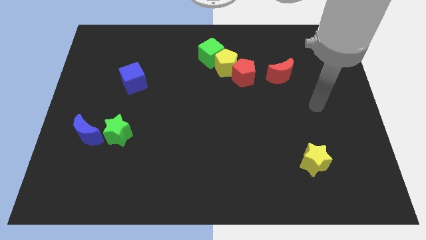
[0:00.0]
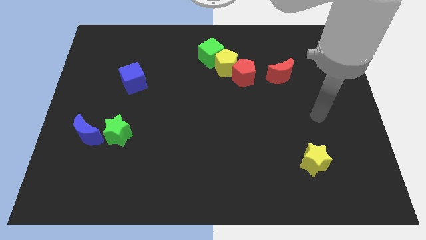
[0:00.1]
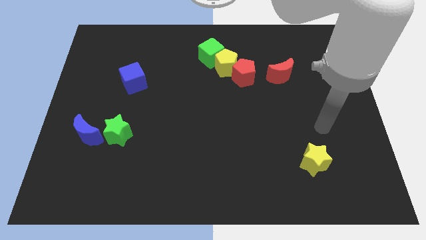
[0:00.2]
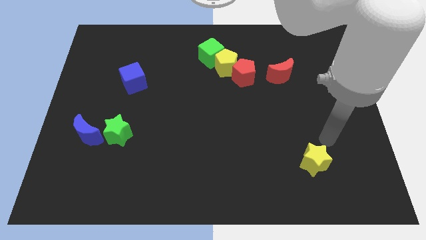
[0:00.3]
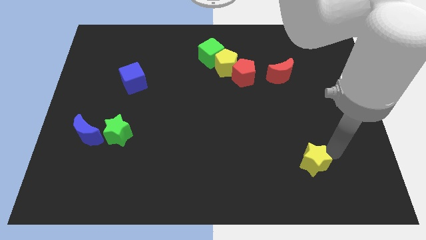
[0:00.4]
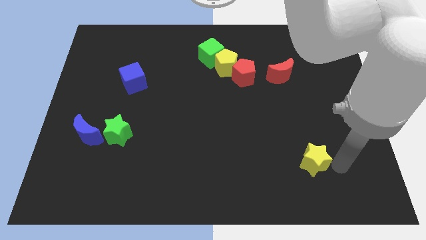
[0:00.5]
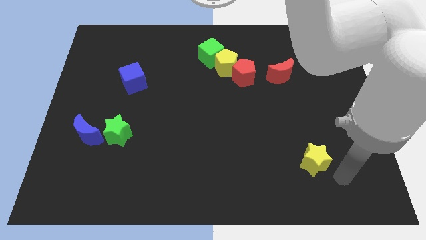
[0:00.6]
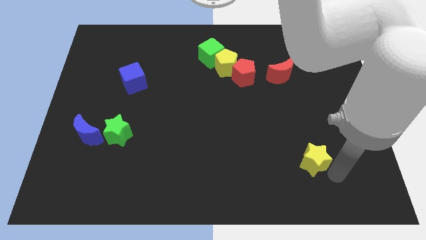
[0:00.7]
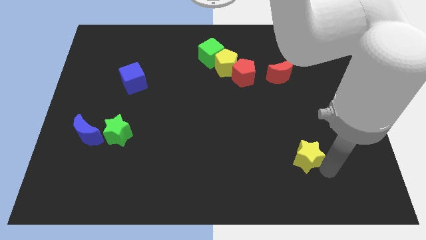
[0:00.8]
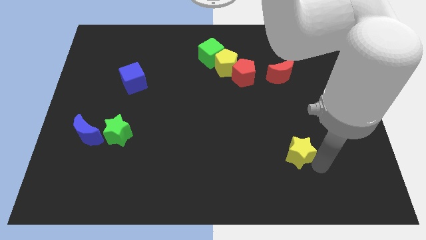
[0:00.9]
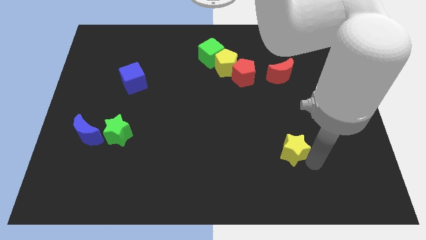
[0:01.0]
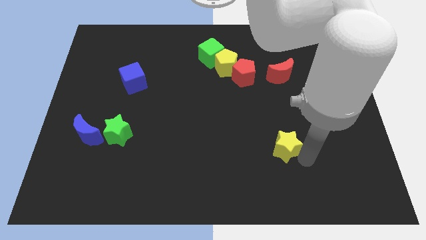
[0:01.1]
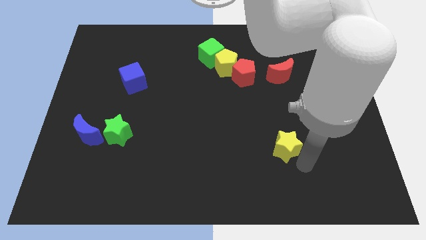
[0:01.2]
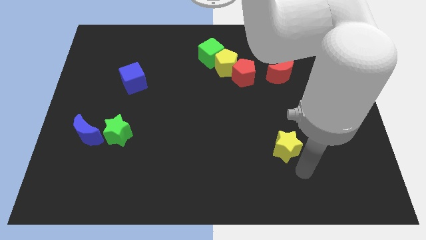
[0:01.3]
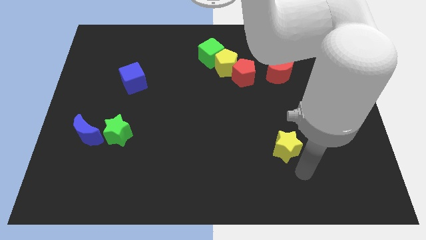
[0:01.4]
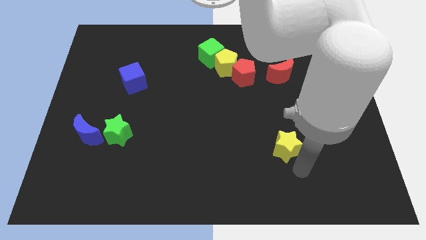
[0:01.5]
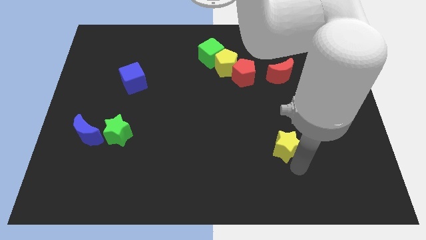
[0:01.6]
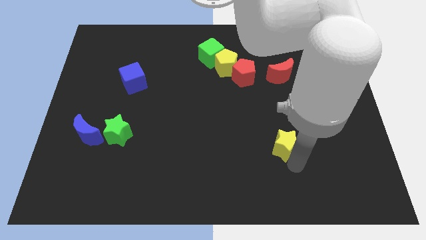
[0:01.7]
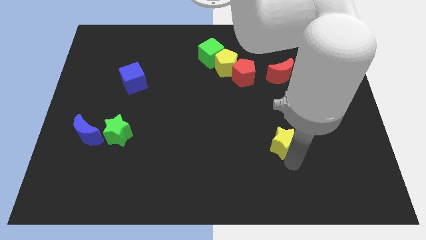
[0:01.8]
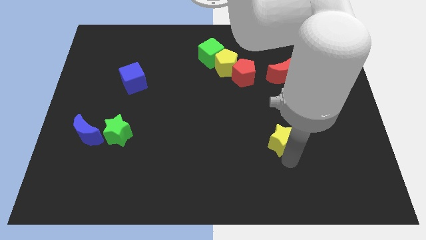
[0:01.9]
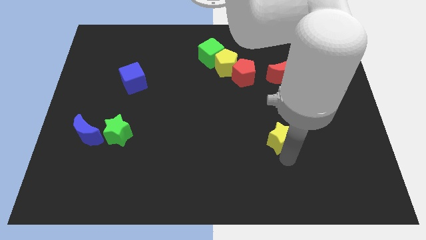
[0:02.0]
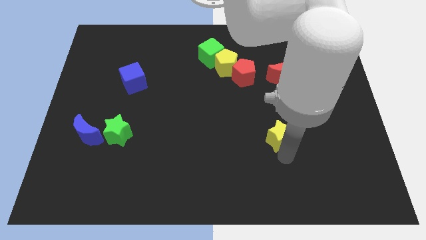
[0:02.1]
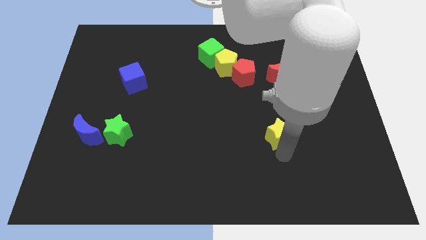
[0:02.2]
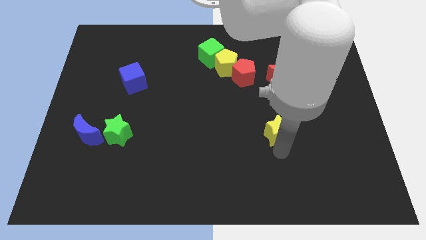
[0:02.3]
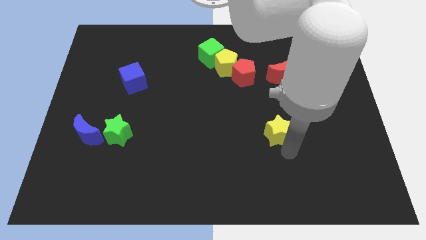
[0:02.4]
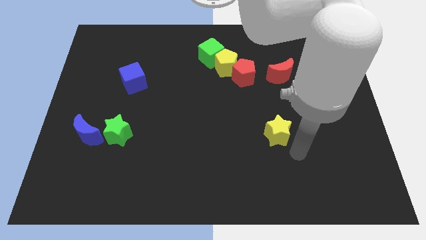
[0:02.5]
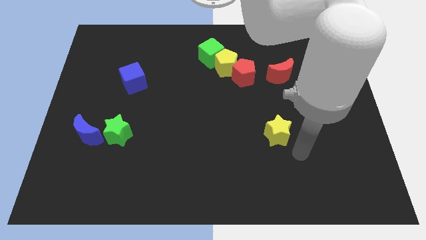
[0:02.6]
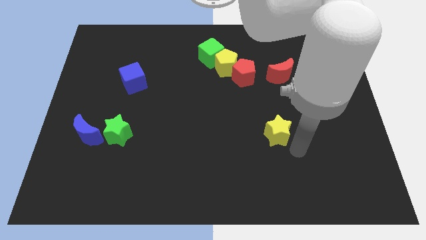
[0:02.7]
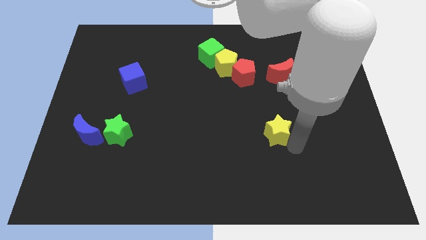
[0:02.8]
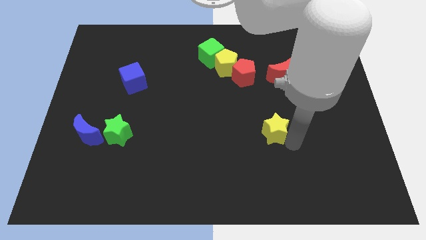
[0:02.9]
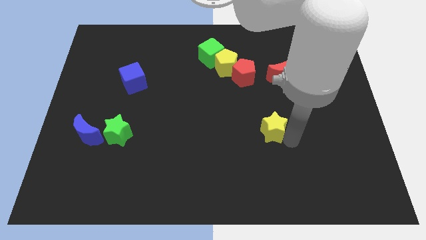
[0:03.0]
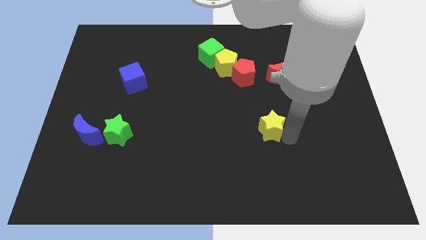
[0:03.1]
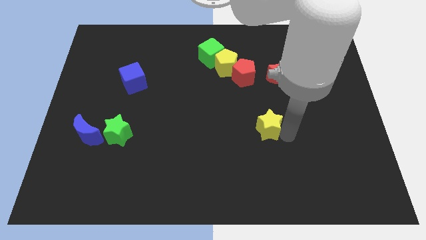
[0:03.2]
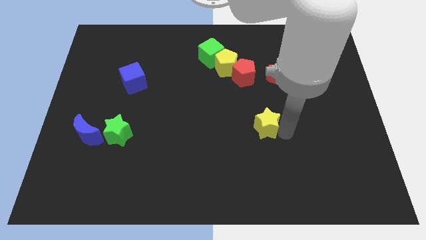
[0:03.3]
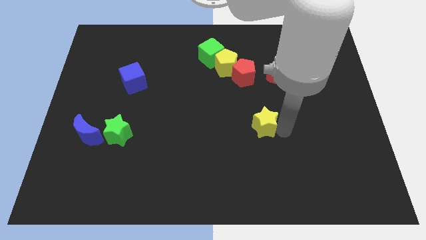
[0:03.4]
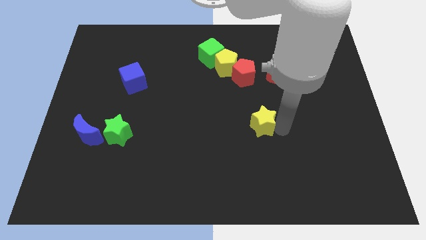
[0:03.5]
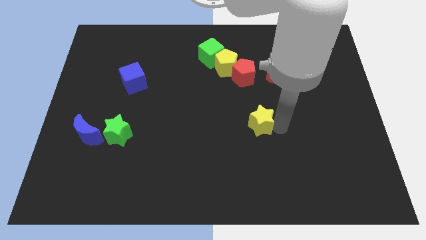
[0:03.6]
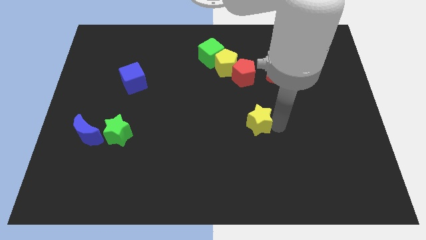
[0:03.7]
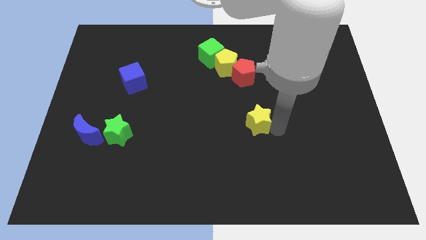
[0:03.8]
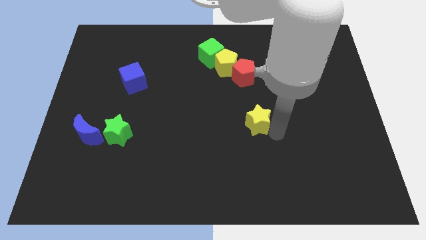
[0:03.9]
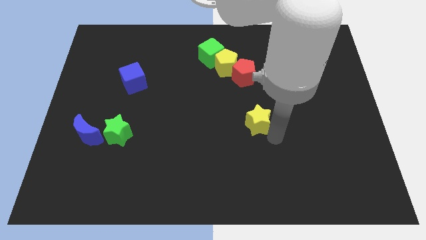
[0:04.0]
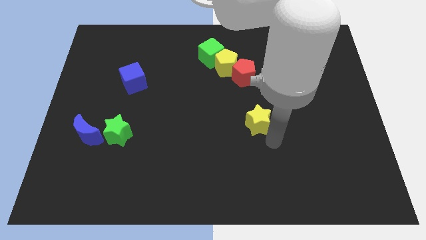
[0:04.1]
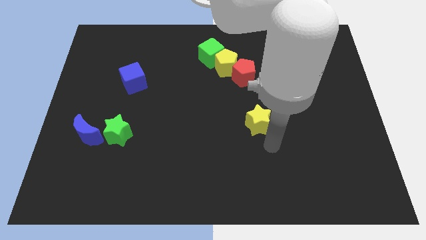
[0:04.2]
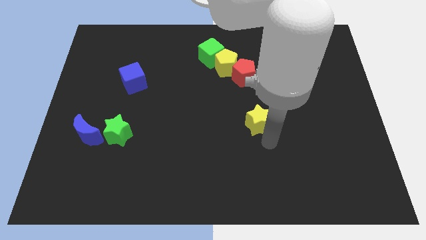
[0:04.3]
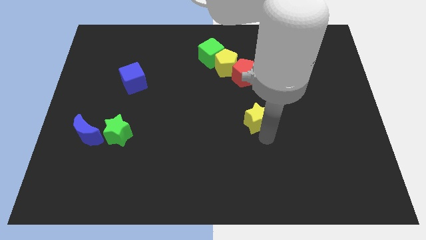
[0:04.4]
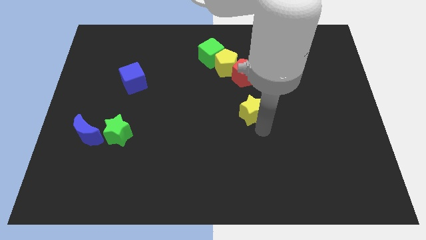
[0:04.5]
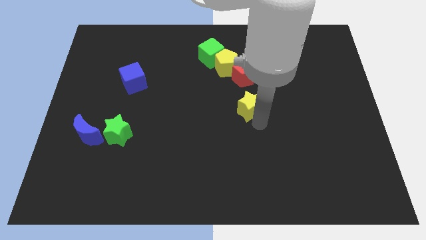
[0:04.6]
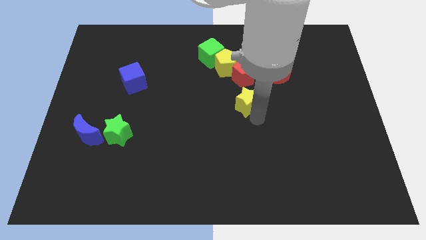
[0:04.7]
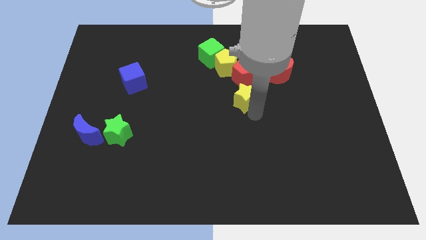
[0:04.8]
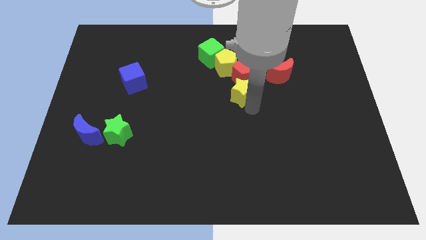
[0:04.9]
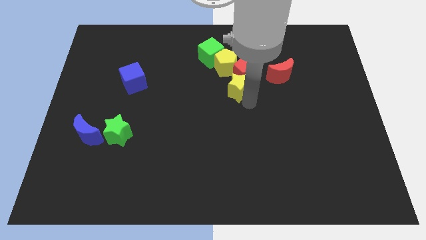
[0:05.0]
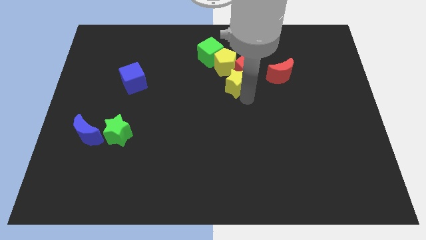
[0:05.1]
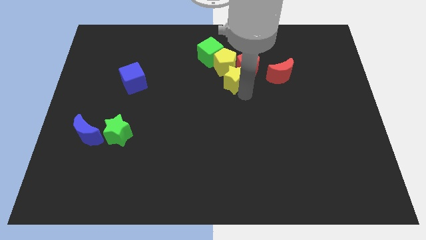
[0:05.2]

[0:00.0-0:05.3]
put the yellow star to the yellow pentagon

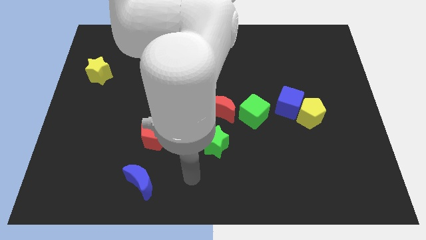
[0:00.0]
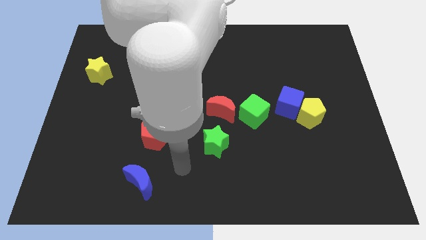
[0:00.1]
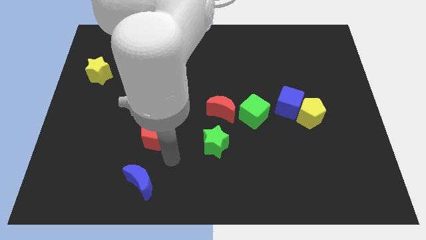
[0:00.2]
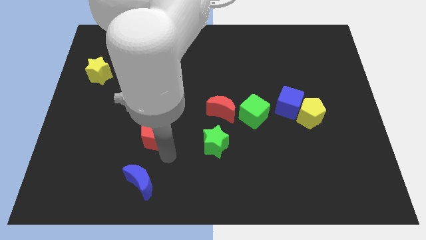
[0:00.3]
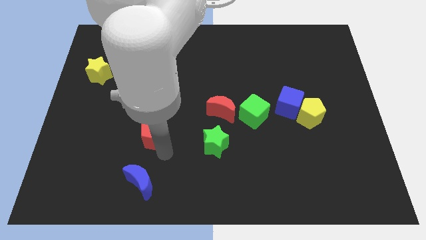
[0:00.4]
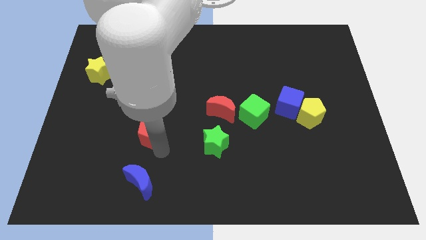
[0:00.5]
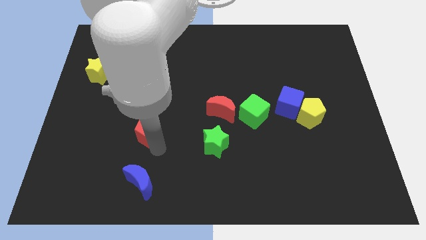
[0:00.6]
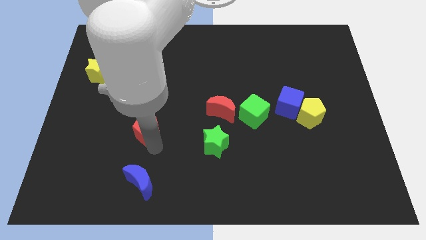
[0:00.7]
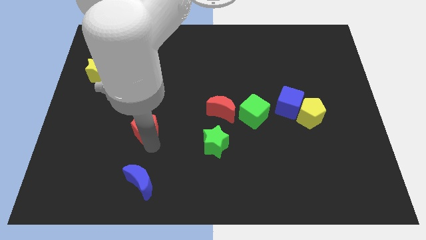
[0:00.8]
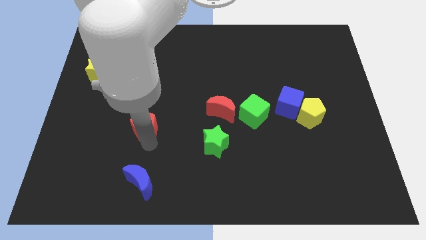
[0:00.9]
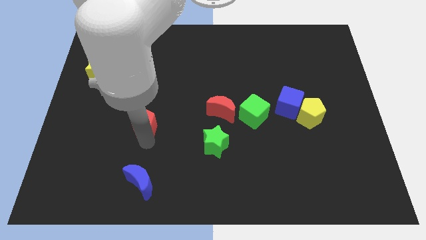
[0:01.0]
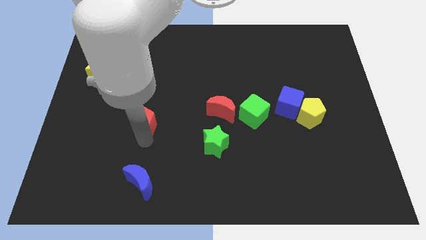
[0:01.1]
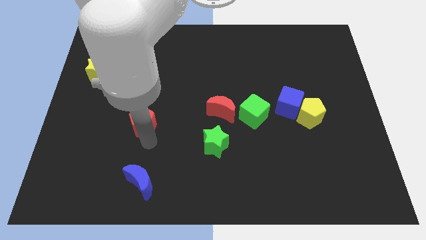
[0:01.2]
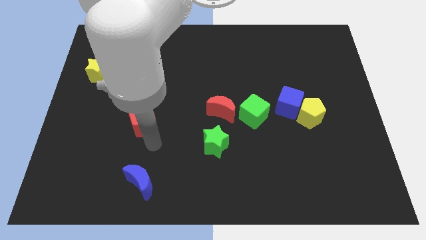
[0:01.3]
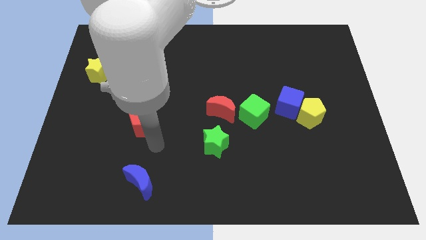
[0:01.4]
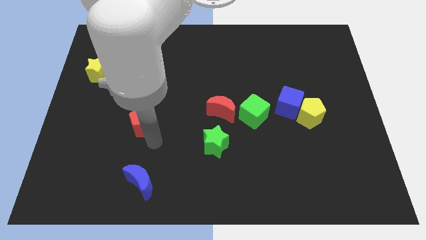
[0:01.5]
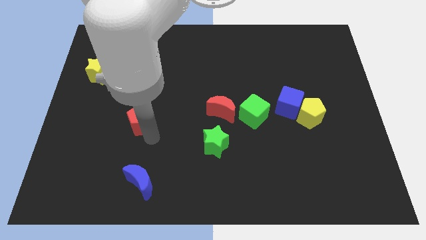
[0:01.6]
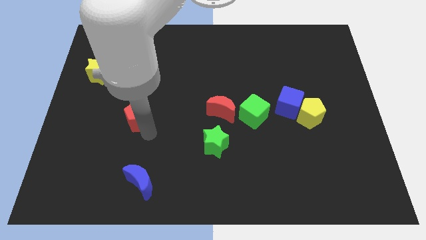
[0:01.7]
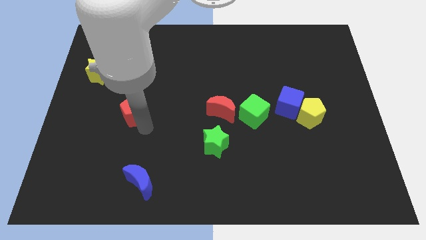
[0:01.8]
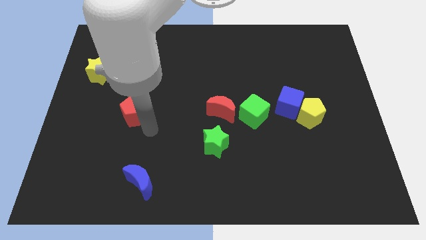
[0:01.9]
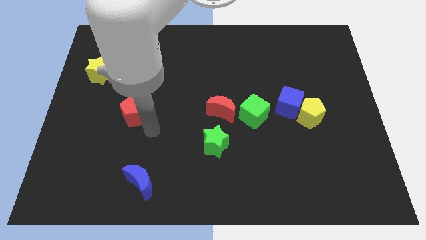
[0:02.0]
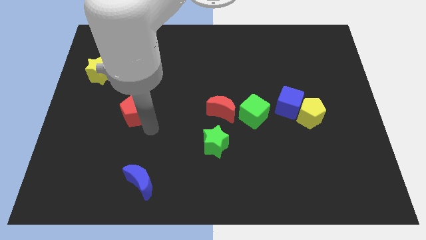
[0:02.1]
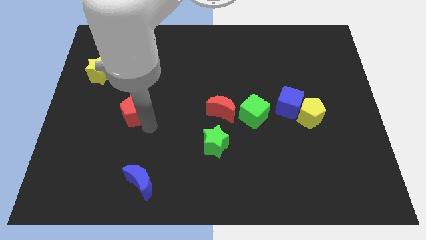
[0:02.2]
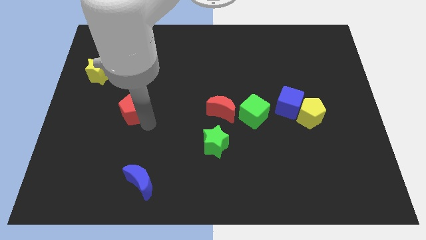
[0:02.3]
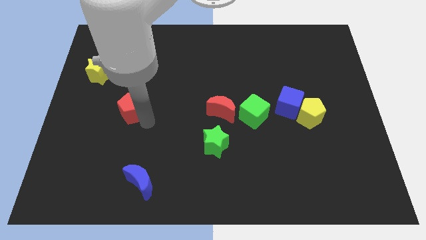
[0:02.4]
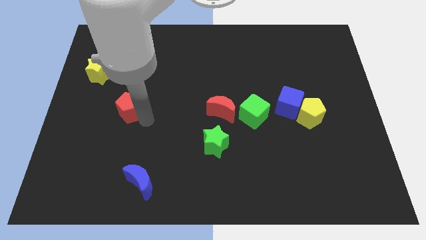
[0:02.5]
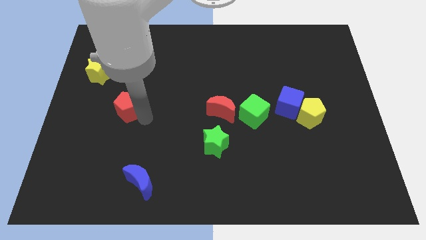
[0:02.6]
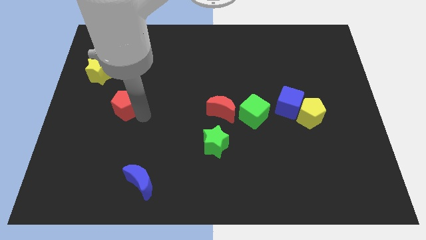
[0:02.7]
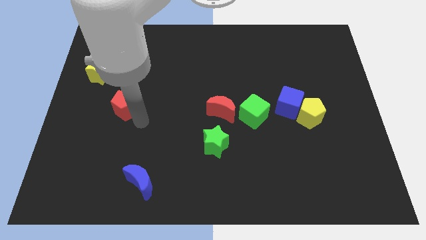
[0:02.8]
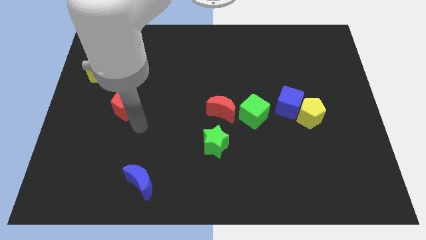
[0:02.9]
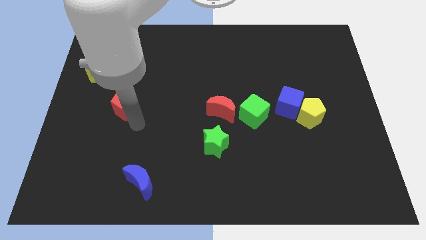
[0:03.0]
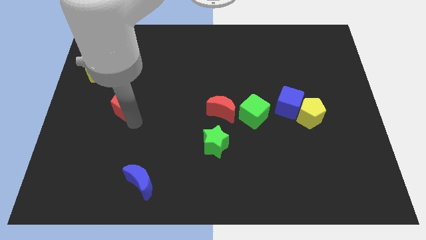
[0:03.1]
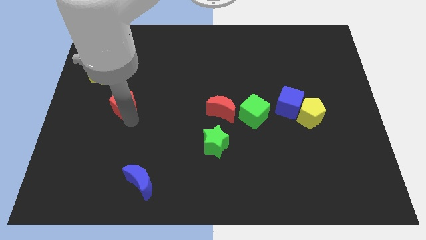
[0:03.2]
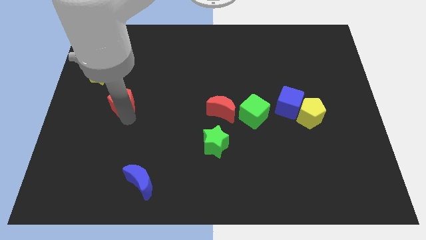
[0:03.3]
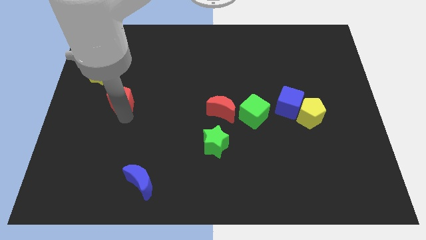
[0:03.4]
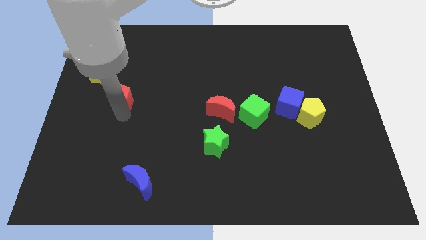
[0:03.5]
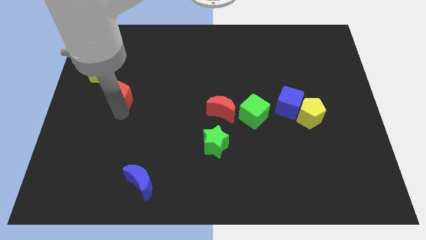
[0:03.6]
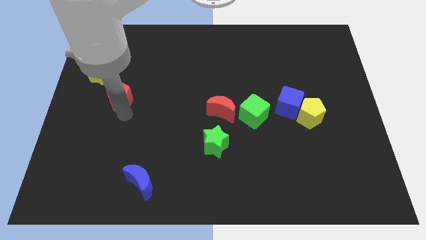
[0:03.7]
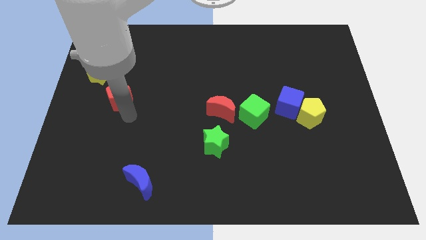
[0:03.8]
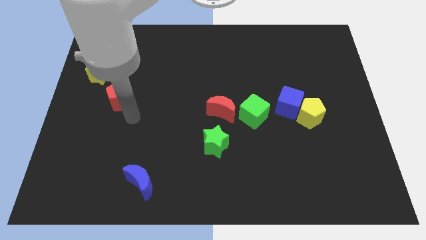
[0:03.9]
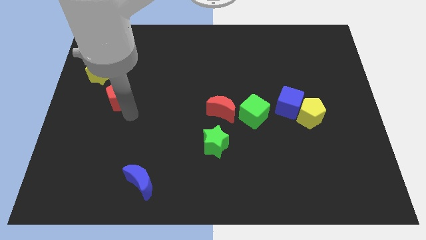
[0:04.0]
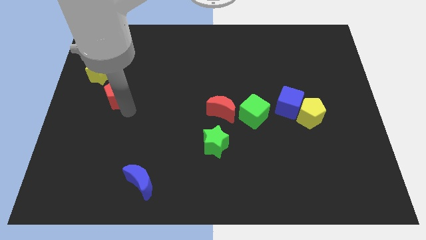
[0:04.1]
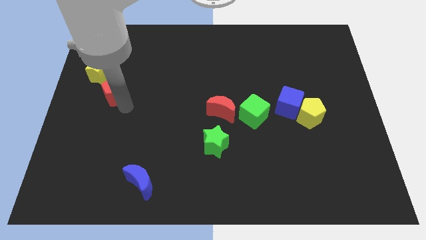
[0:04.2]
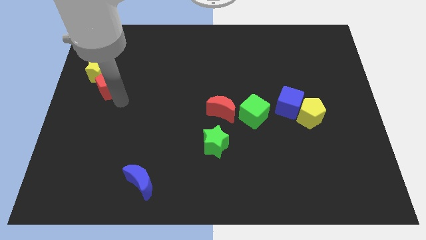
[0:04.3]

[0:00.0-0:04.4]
put the red pentagon close to the yellow star
